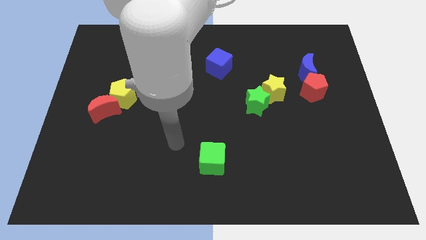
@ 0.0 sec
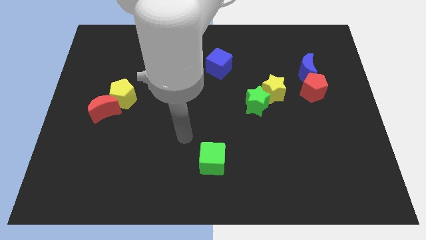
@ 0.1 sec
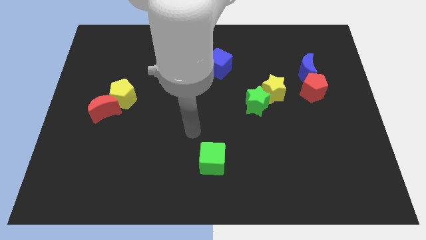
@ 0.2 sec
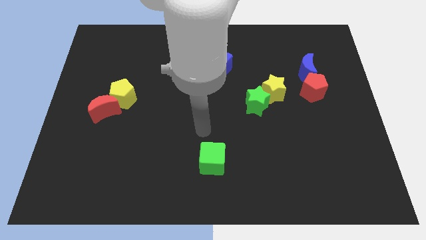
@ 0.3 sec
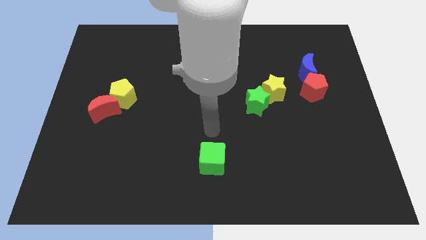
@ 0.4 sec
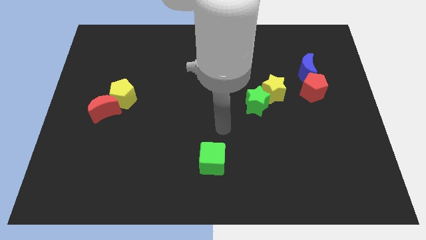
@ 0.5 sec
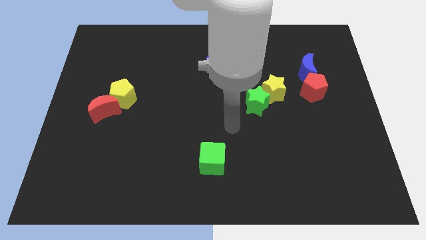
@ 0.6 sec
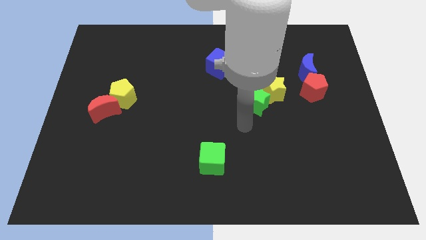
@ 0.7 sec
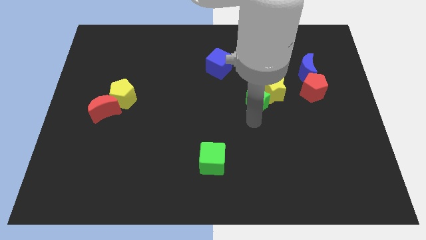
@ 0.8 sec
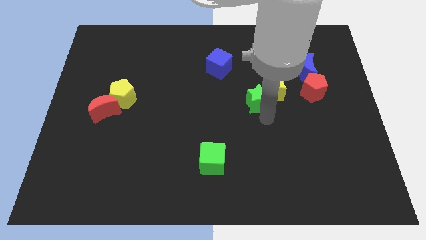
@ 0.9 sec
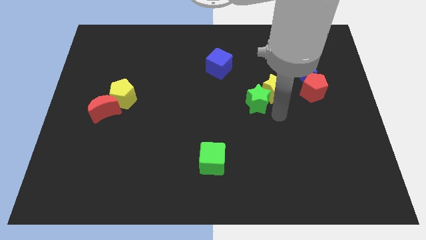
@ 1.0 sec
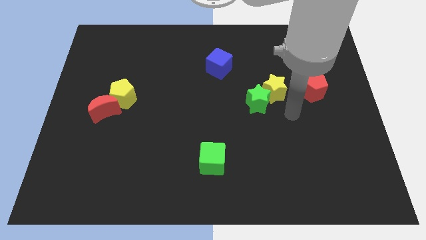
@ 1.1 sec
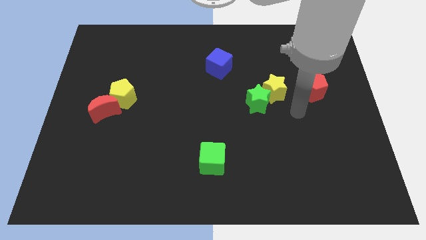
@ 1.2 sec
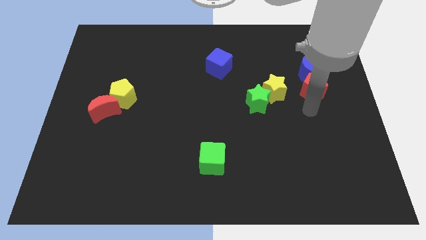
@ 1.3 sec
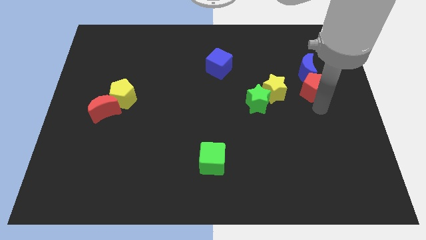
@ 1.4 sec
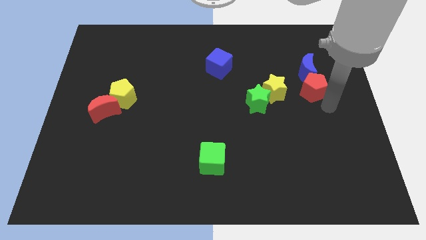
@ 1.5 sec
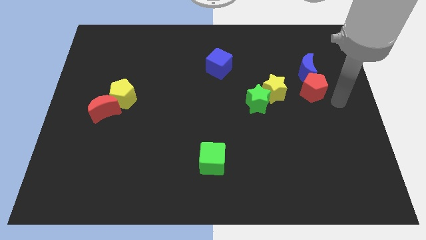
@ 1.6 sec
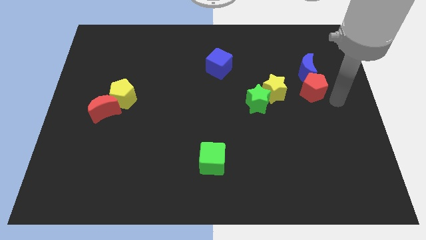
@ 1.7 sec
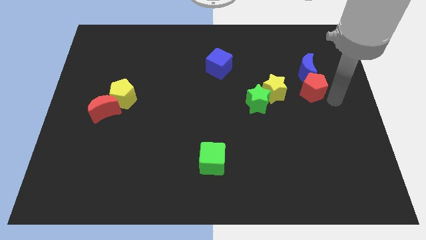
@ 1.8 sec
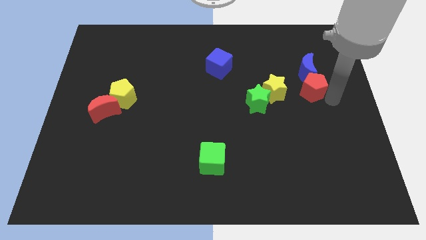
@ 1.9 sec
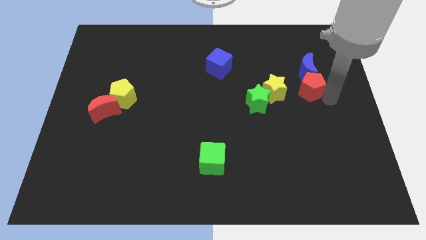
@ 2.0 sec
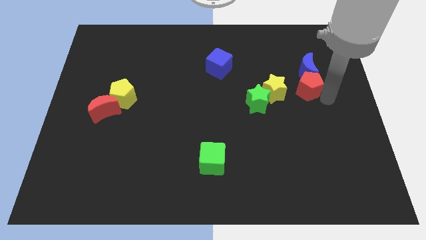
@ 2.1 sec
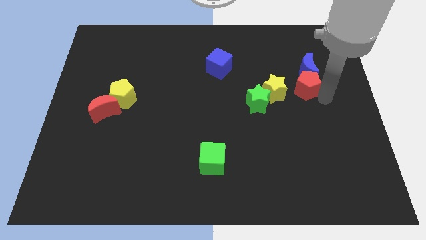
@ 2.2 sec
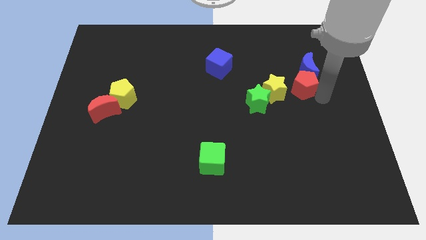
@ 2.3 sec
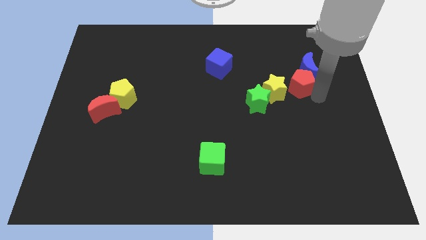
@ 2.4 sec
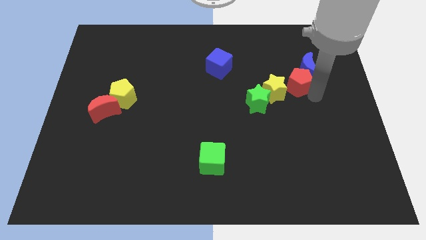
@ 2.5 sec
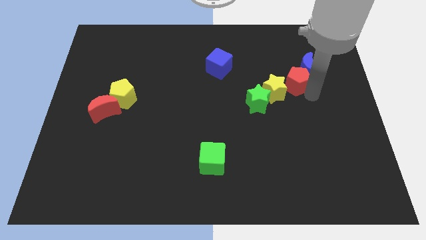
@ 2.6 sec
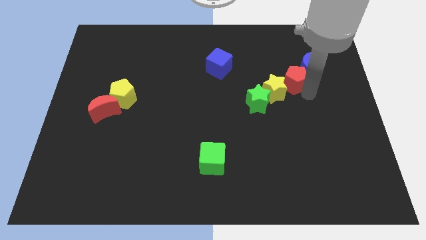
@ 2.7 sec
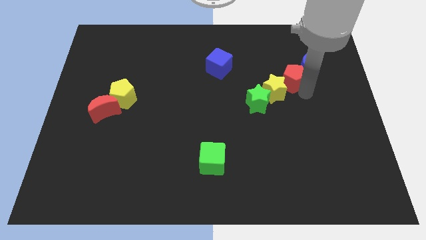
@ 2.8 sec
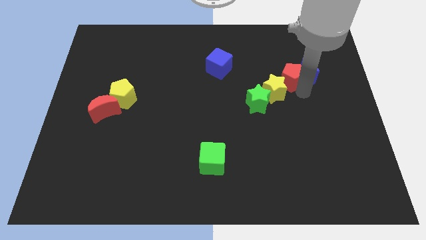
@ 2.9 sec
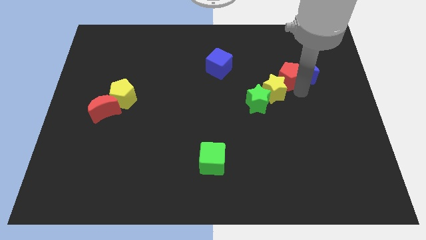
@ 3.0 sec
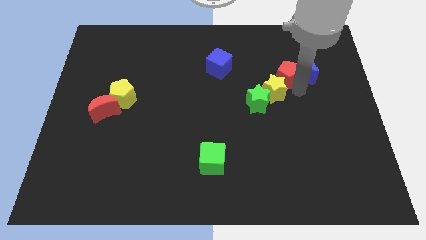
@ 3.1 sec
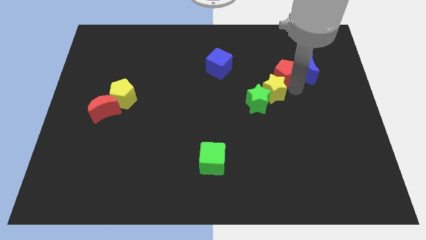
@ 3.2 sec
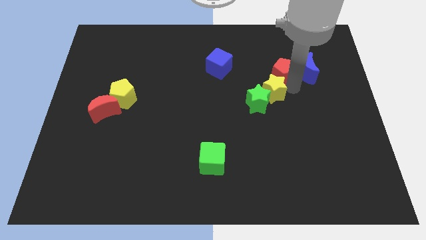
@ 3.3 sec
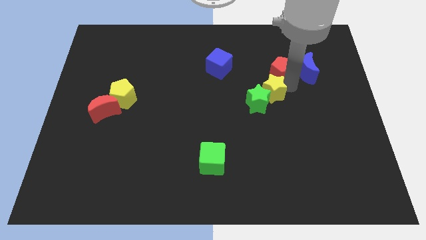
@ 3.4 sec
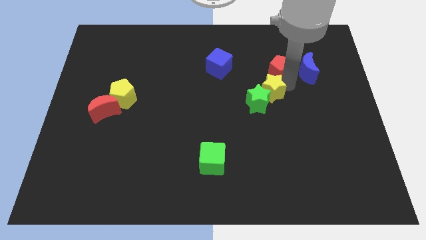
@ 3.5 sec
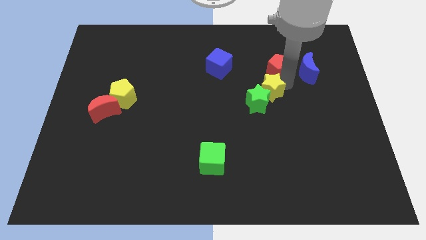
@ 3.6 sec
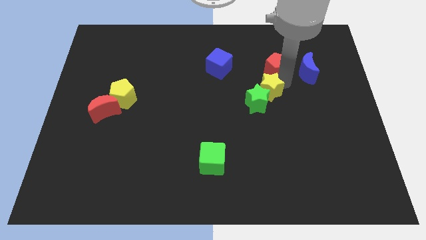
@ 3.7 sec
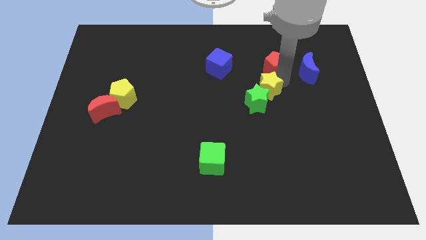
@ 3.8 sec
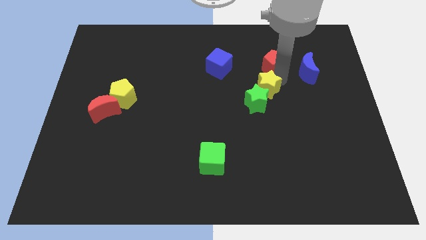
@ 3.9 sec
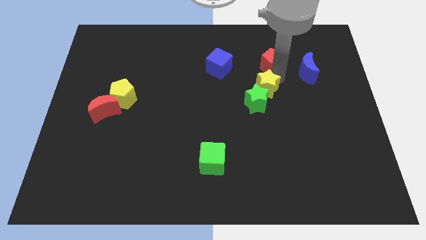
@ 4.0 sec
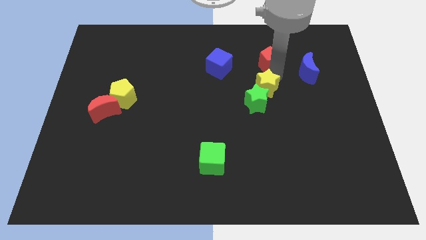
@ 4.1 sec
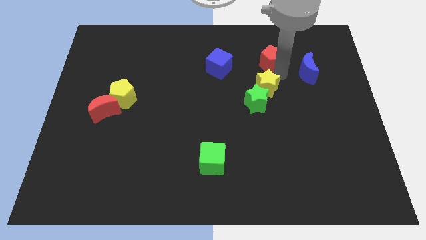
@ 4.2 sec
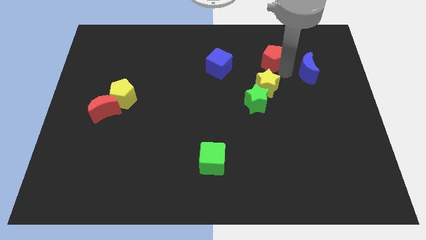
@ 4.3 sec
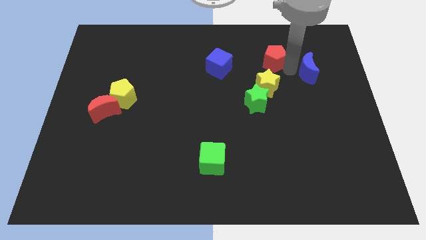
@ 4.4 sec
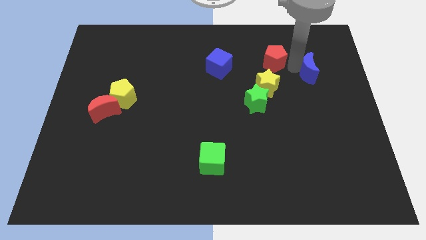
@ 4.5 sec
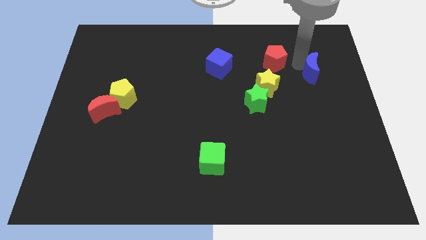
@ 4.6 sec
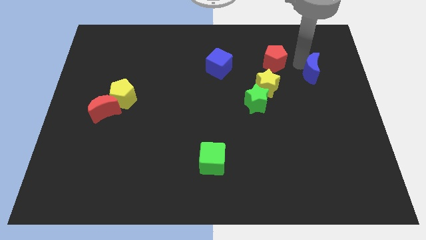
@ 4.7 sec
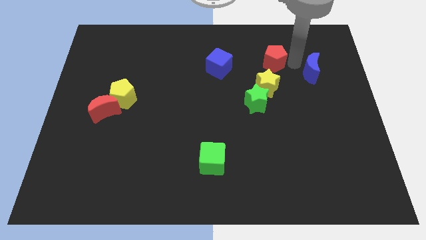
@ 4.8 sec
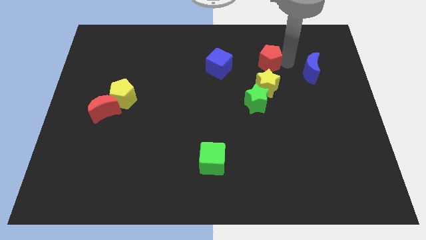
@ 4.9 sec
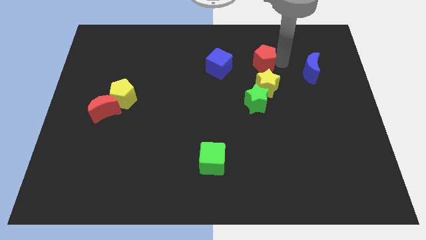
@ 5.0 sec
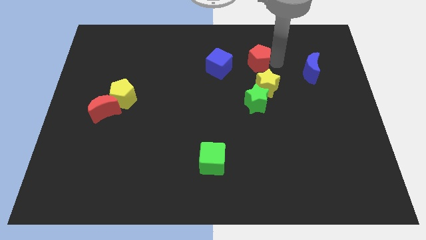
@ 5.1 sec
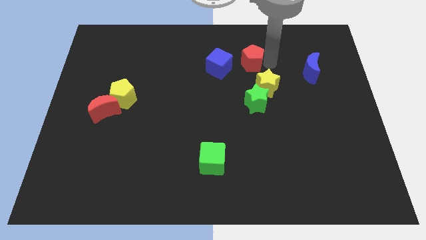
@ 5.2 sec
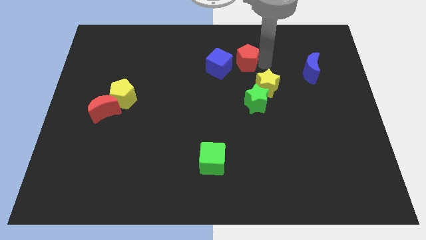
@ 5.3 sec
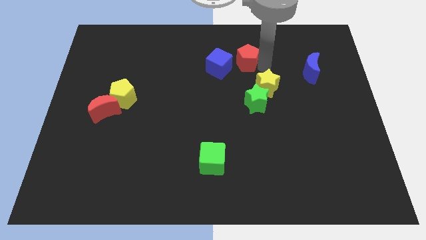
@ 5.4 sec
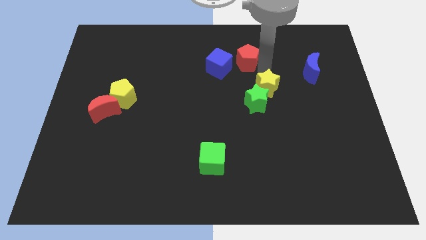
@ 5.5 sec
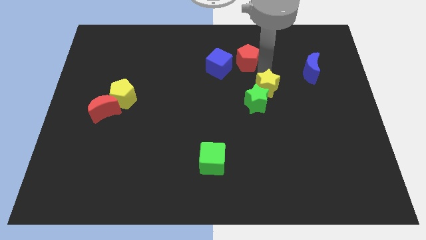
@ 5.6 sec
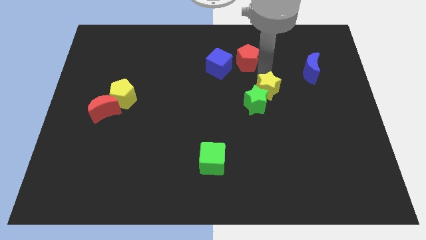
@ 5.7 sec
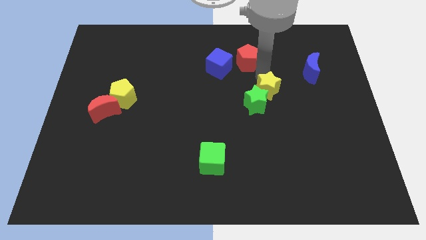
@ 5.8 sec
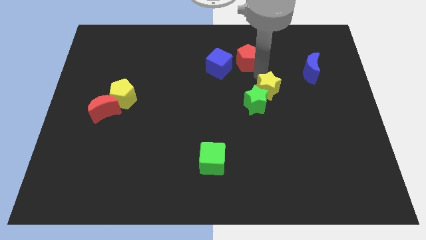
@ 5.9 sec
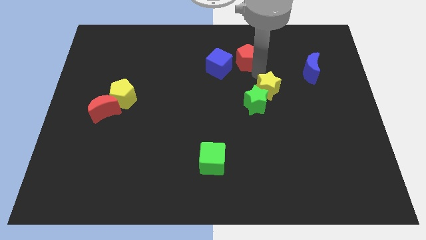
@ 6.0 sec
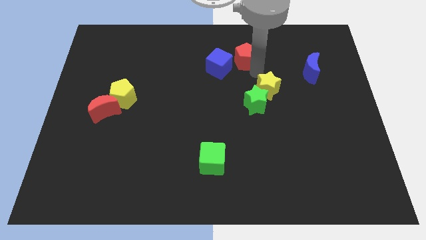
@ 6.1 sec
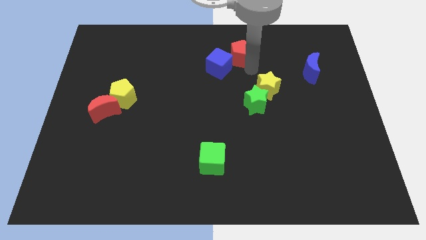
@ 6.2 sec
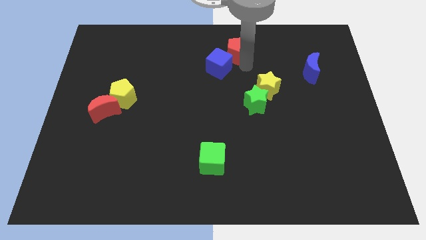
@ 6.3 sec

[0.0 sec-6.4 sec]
move the red pentagon to the top
